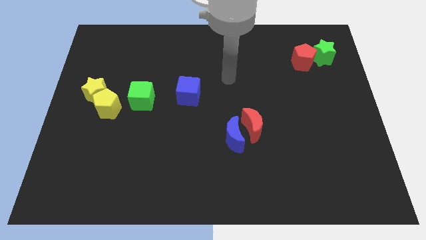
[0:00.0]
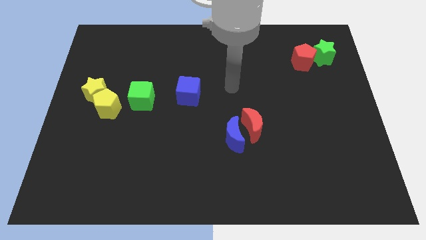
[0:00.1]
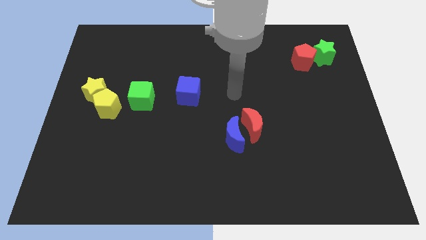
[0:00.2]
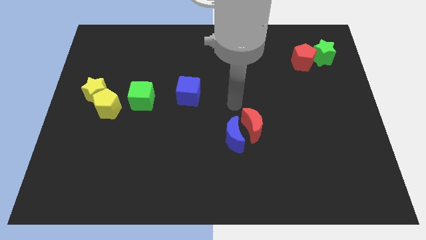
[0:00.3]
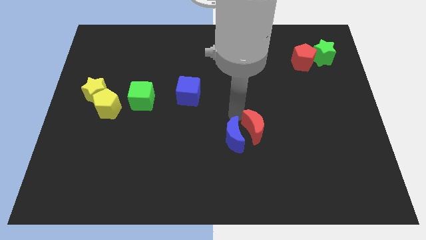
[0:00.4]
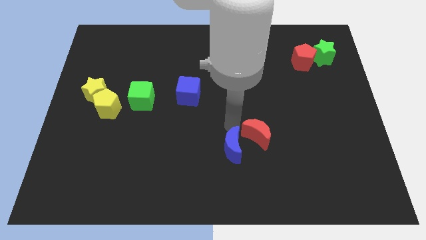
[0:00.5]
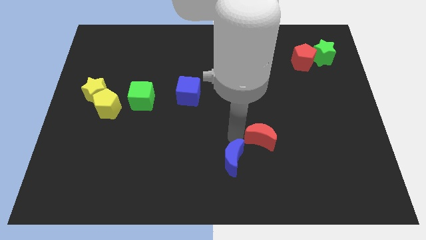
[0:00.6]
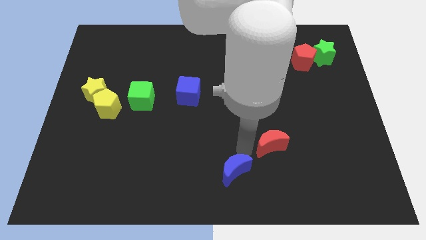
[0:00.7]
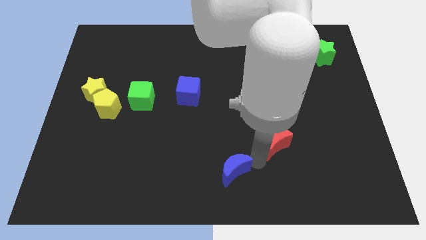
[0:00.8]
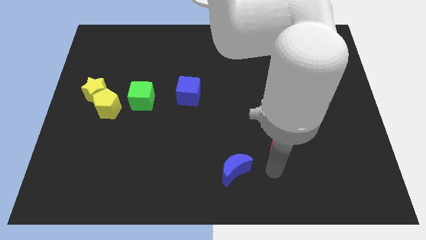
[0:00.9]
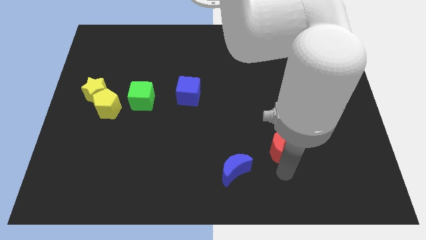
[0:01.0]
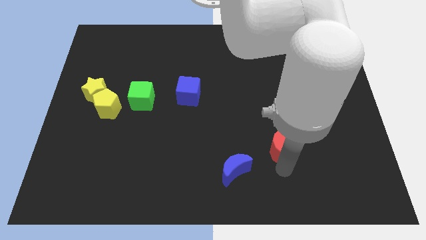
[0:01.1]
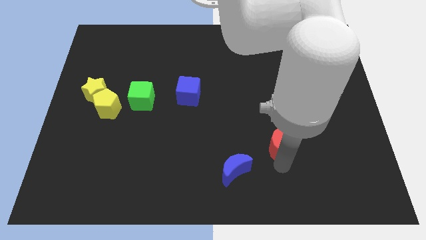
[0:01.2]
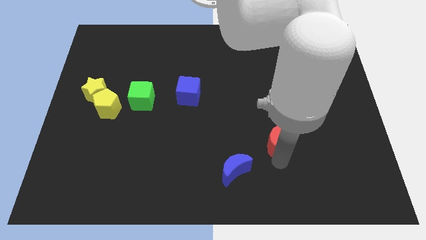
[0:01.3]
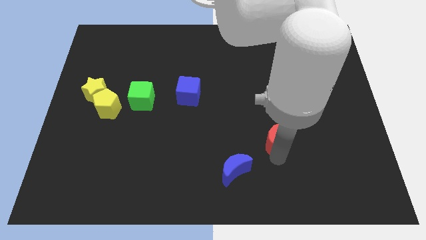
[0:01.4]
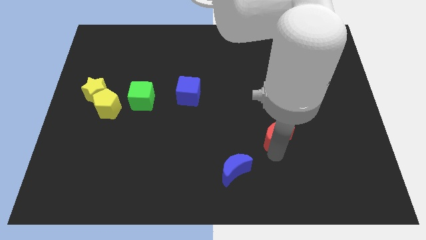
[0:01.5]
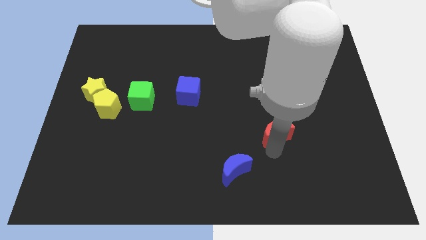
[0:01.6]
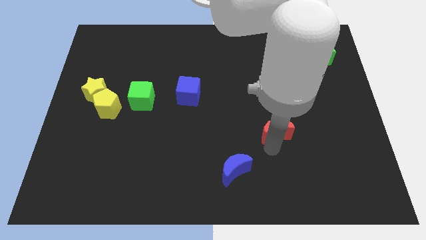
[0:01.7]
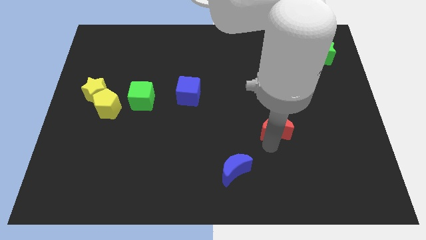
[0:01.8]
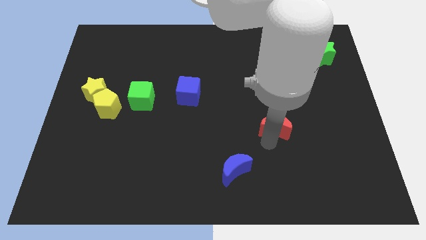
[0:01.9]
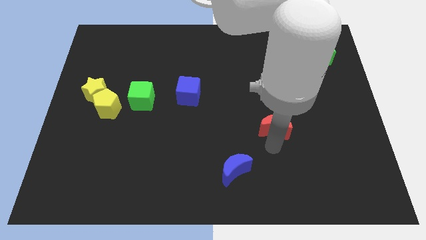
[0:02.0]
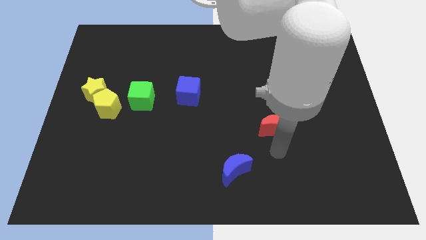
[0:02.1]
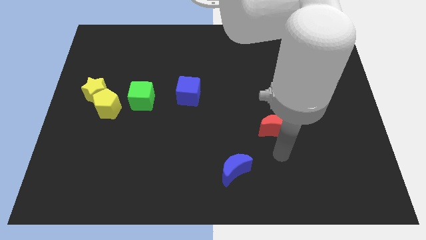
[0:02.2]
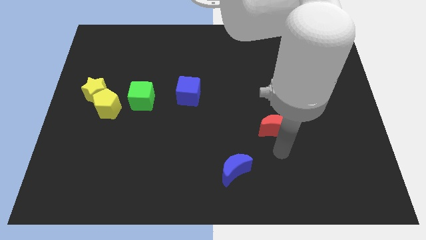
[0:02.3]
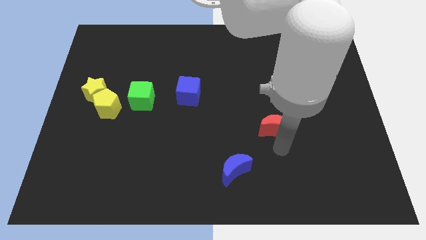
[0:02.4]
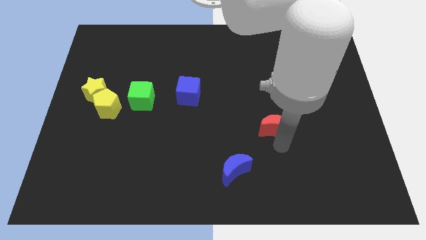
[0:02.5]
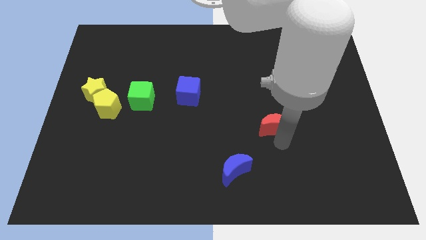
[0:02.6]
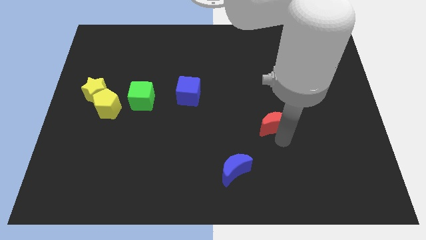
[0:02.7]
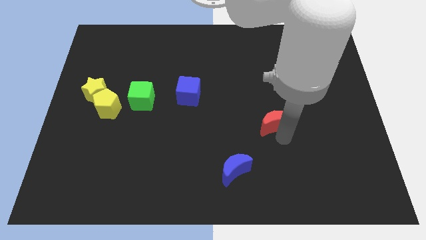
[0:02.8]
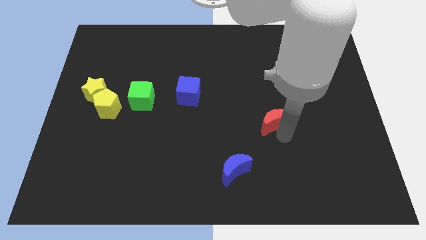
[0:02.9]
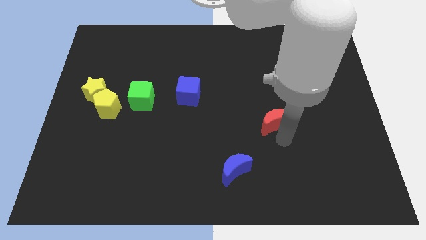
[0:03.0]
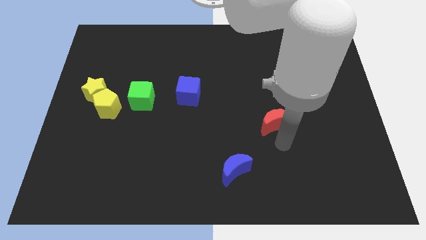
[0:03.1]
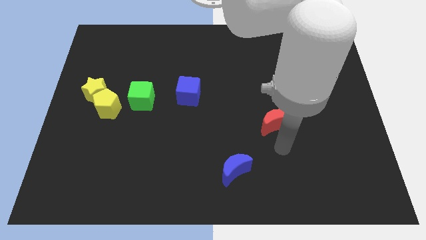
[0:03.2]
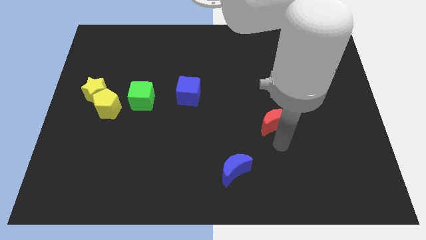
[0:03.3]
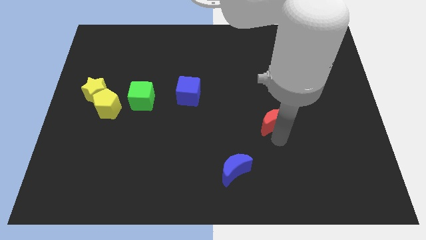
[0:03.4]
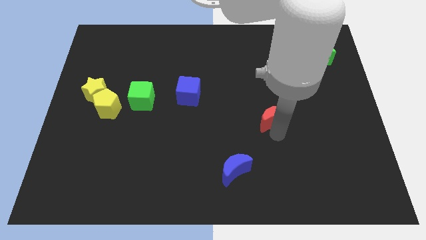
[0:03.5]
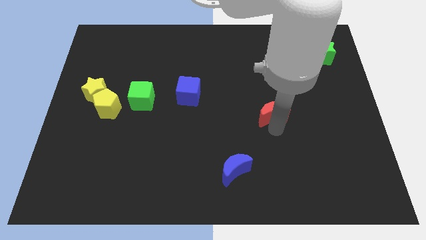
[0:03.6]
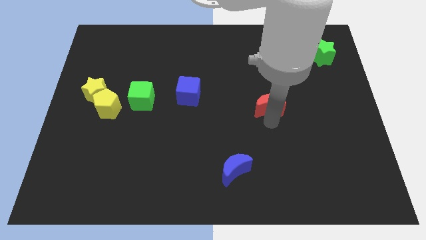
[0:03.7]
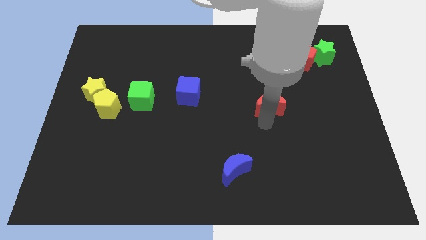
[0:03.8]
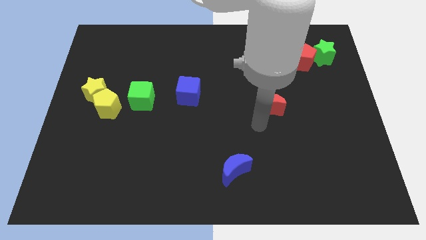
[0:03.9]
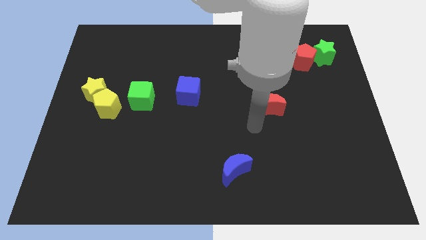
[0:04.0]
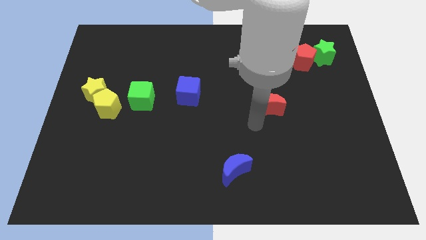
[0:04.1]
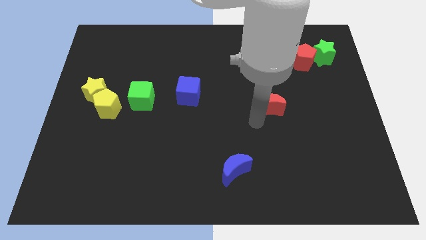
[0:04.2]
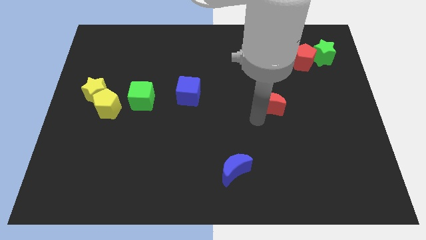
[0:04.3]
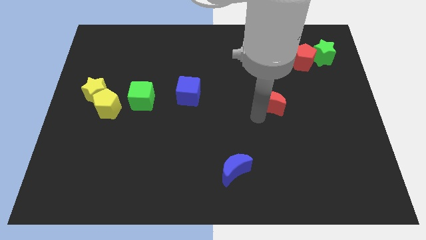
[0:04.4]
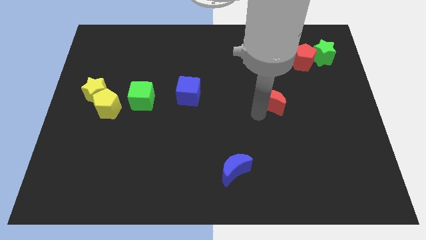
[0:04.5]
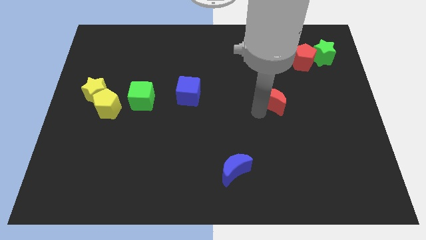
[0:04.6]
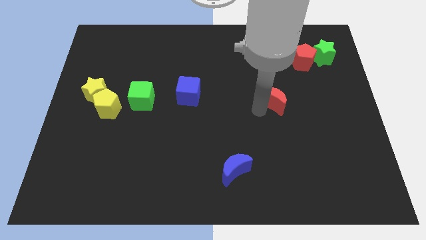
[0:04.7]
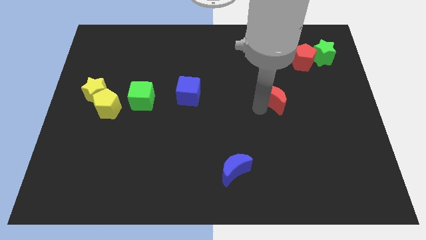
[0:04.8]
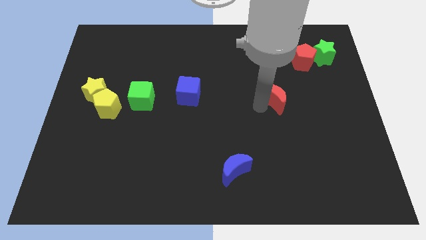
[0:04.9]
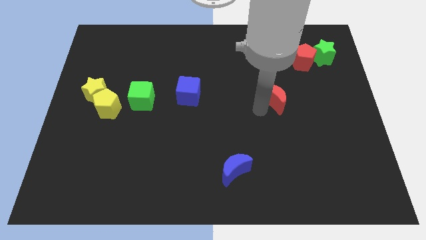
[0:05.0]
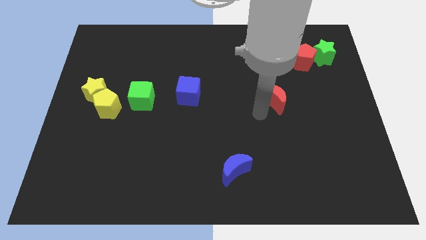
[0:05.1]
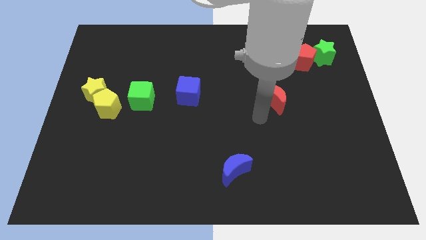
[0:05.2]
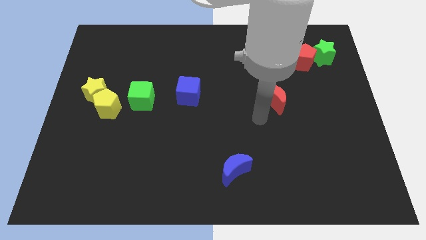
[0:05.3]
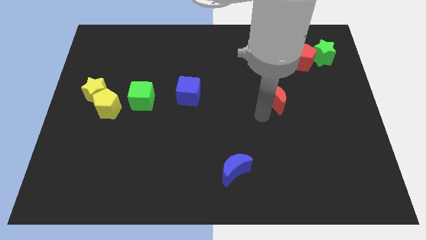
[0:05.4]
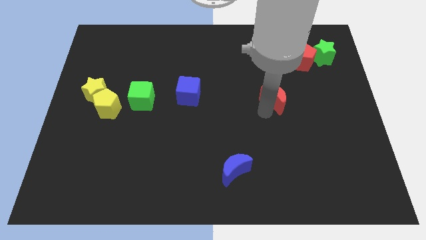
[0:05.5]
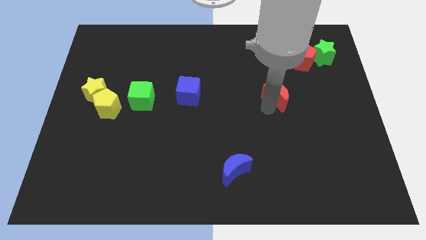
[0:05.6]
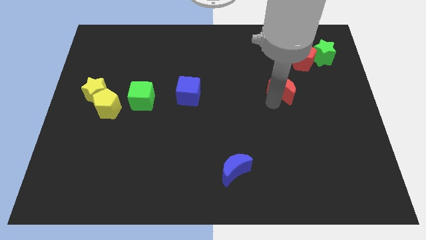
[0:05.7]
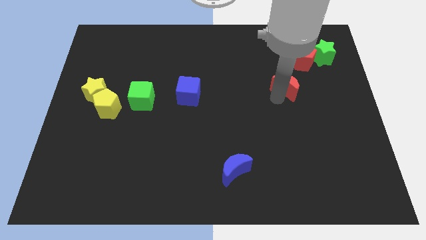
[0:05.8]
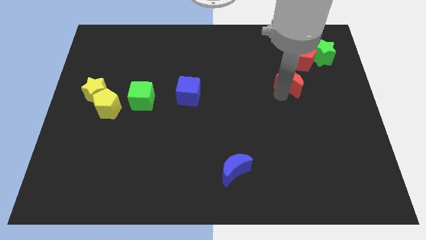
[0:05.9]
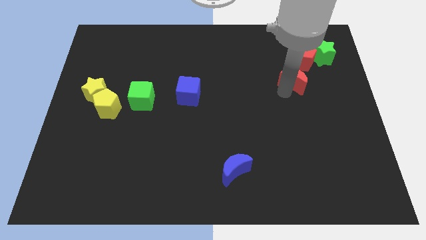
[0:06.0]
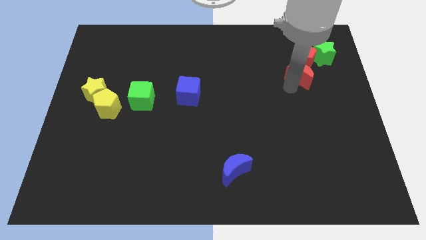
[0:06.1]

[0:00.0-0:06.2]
move the red moon to the red pentagon
